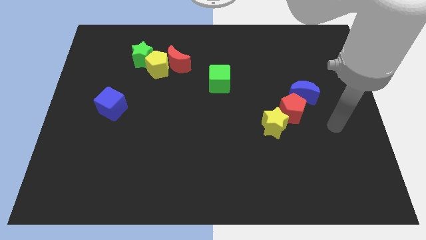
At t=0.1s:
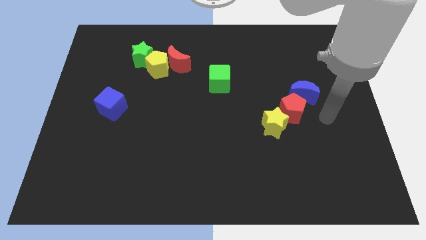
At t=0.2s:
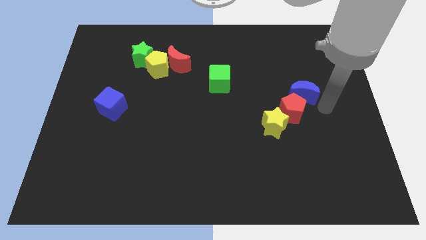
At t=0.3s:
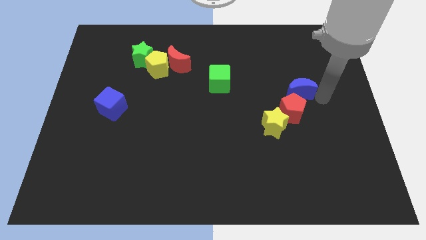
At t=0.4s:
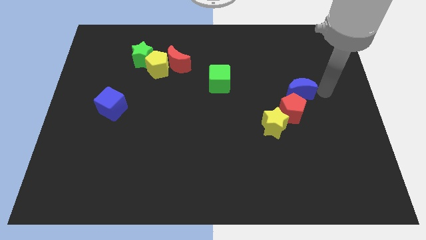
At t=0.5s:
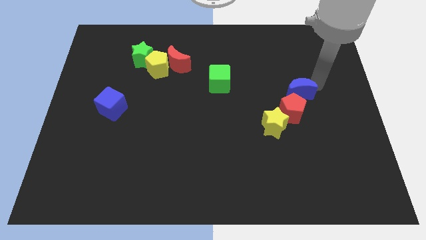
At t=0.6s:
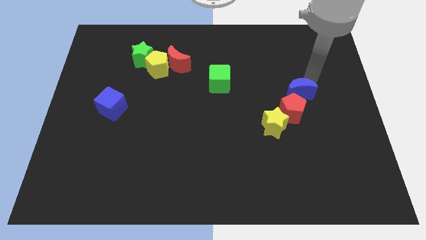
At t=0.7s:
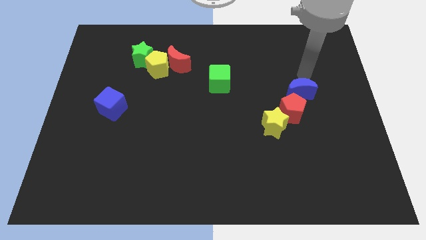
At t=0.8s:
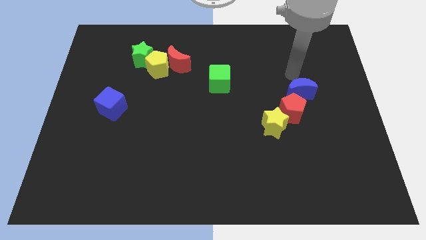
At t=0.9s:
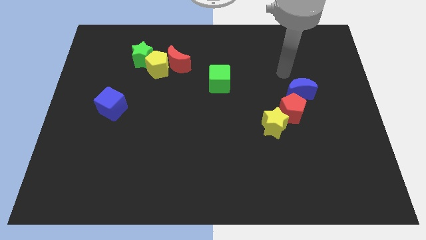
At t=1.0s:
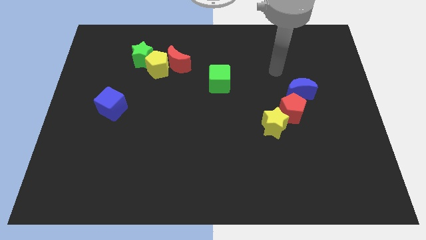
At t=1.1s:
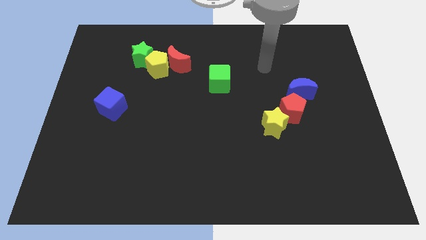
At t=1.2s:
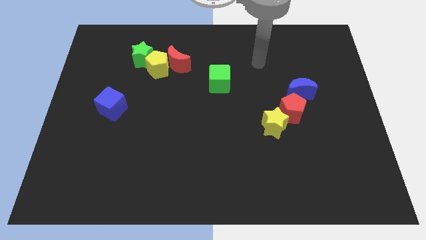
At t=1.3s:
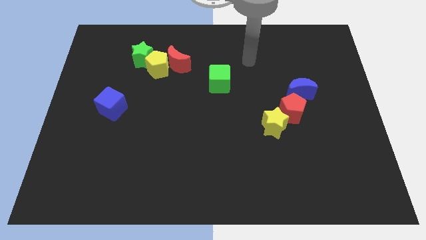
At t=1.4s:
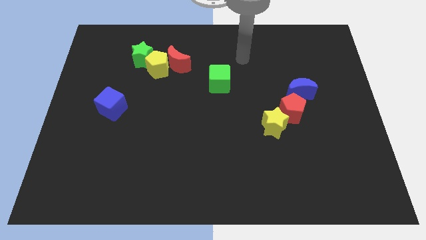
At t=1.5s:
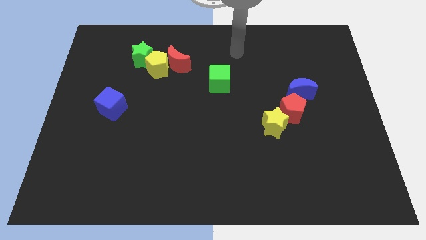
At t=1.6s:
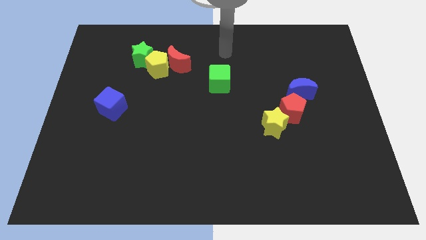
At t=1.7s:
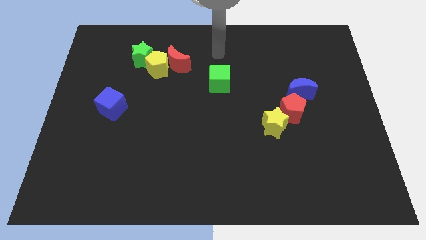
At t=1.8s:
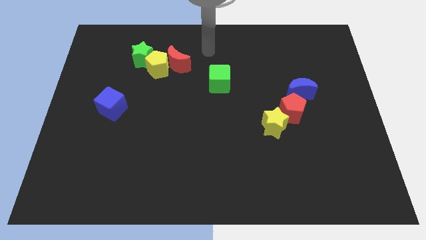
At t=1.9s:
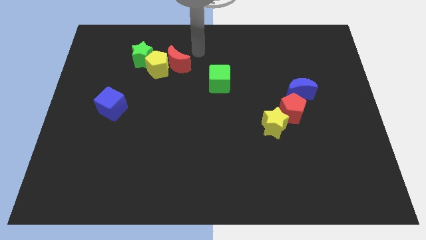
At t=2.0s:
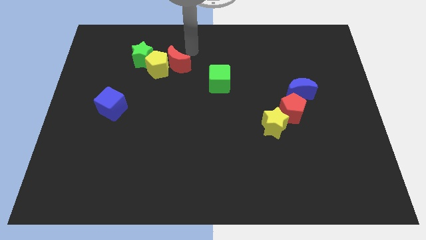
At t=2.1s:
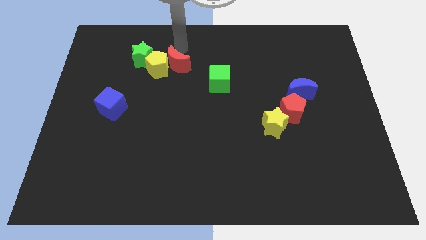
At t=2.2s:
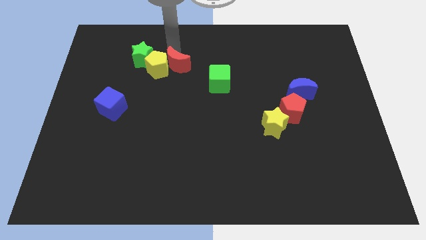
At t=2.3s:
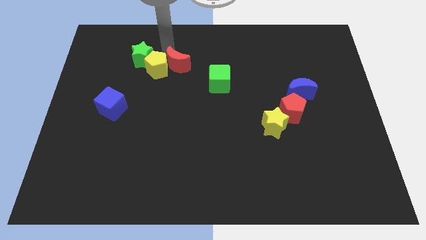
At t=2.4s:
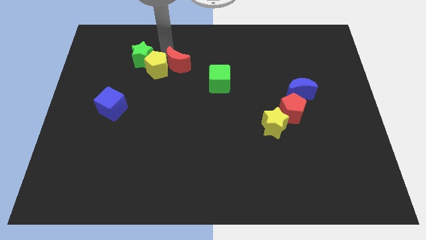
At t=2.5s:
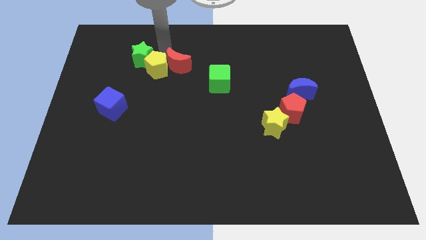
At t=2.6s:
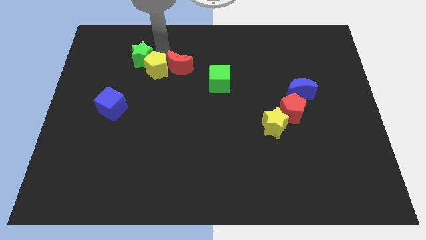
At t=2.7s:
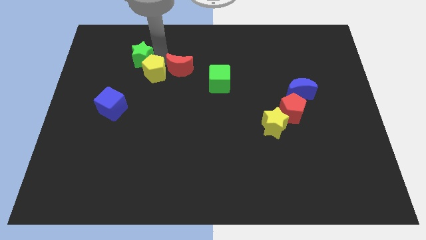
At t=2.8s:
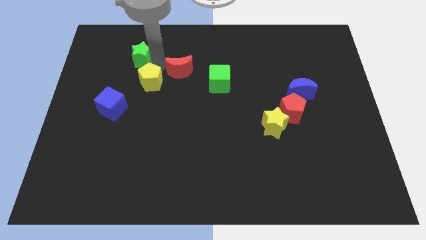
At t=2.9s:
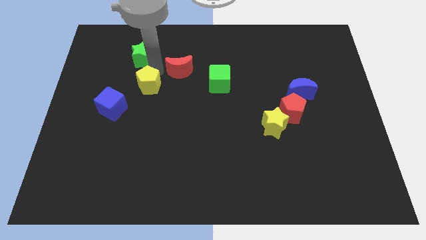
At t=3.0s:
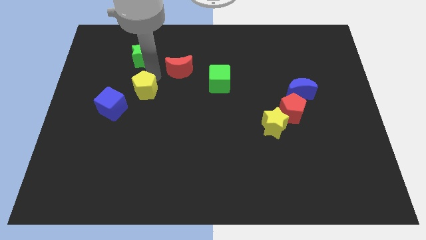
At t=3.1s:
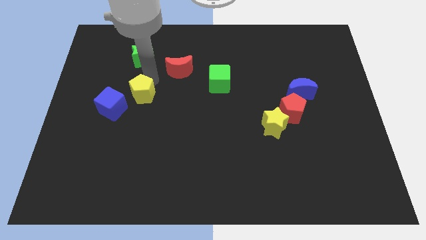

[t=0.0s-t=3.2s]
pull the yellow pentagon apart from the red moon and green star

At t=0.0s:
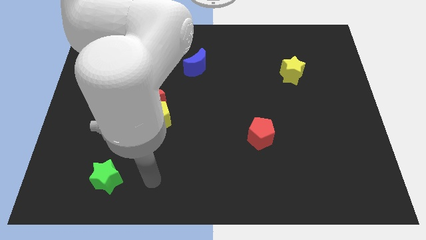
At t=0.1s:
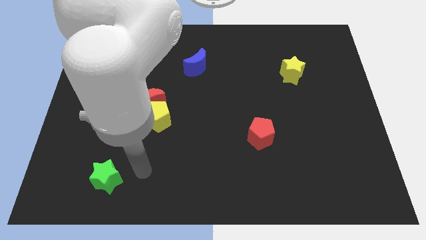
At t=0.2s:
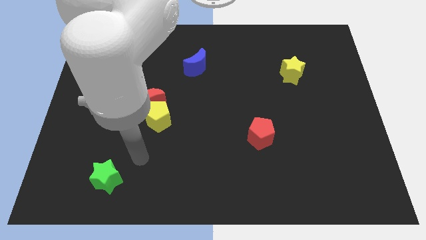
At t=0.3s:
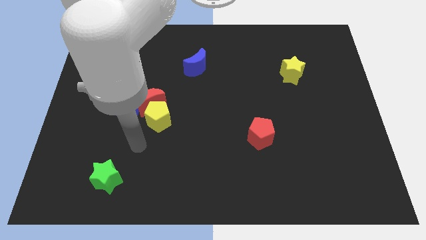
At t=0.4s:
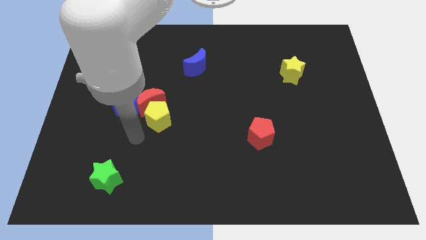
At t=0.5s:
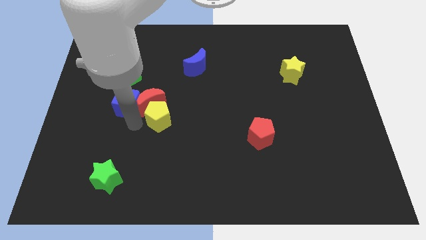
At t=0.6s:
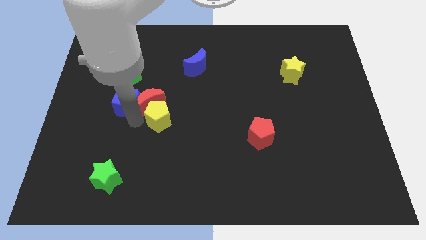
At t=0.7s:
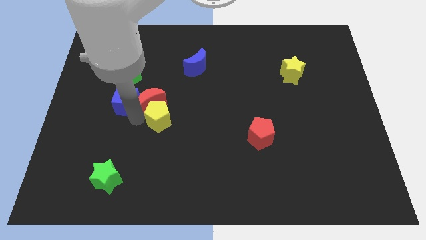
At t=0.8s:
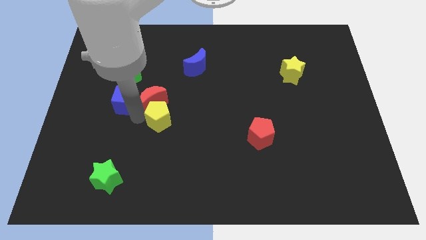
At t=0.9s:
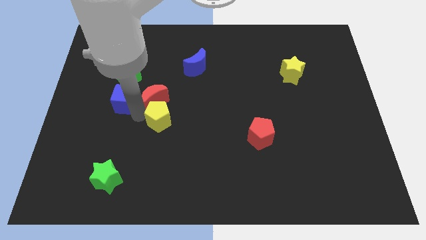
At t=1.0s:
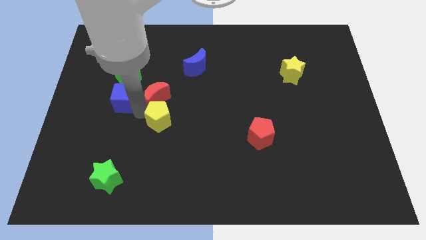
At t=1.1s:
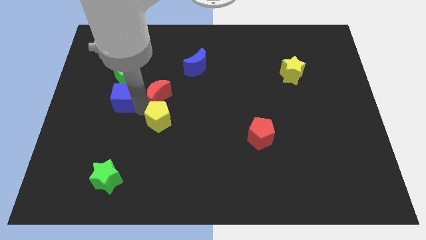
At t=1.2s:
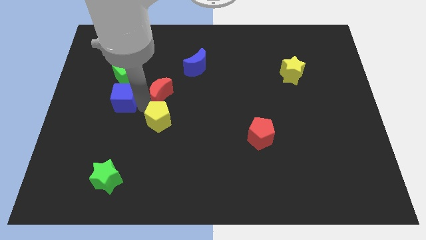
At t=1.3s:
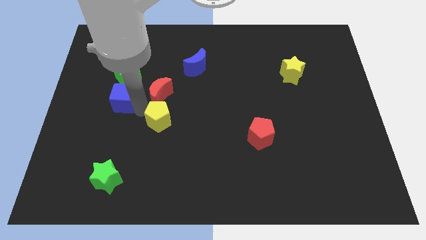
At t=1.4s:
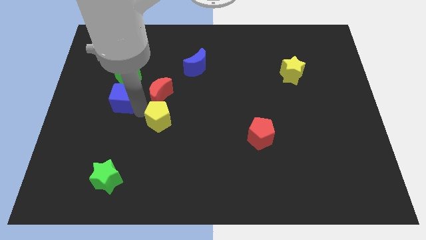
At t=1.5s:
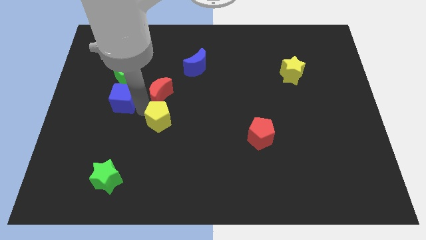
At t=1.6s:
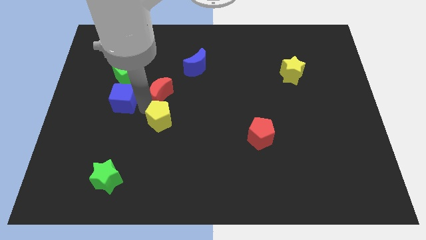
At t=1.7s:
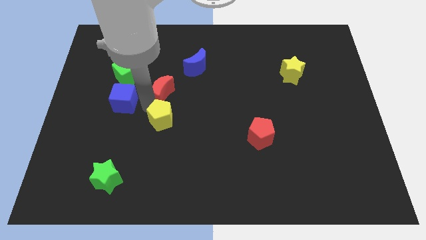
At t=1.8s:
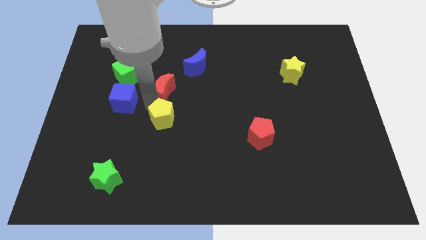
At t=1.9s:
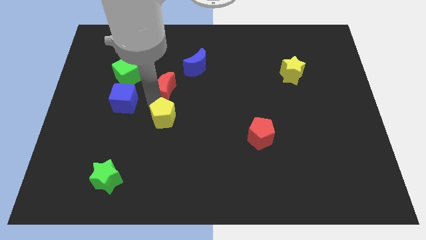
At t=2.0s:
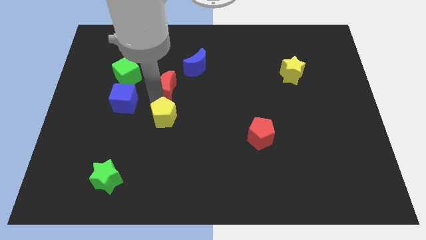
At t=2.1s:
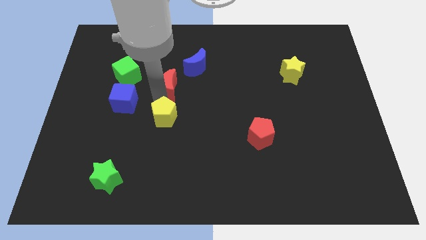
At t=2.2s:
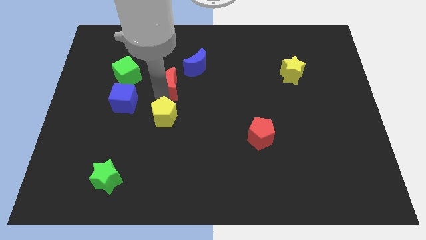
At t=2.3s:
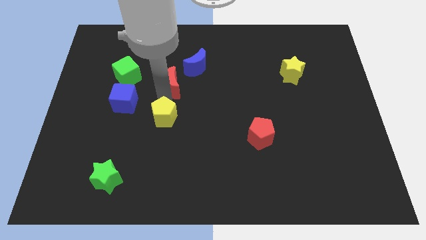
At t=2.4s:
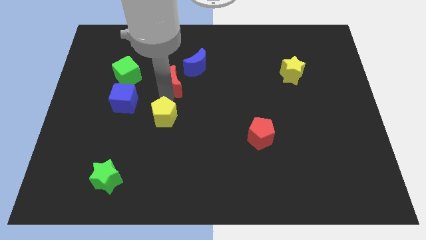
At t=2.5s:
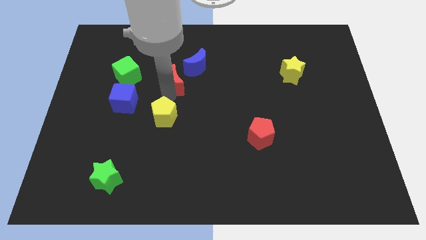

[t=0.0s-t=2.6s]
move the red moon away from the yellow pentagon and blue cube

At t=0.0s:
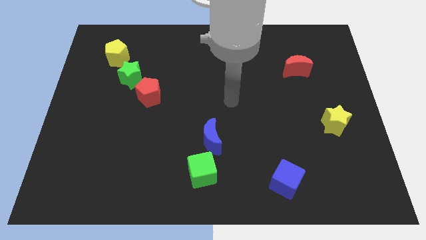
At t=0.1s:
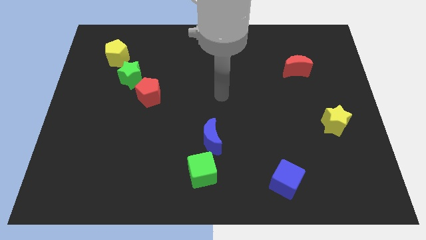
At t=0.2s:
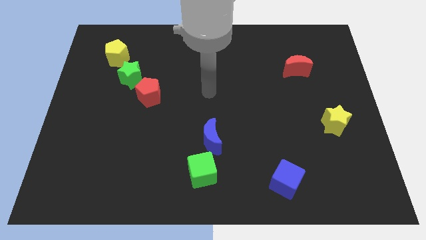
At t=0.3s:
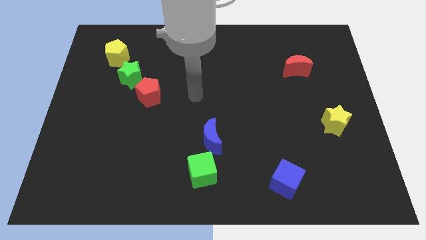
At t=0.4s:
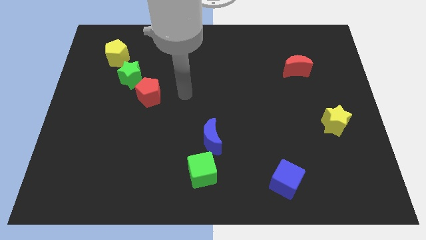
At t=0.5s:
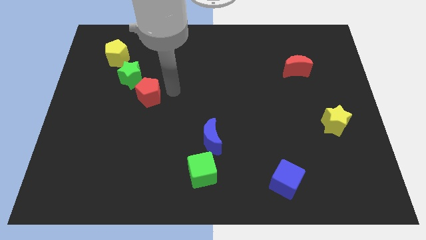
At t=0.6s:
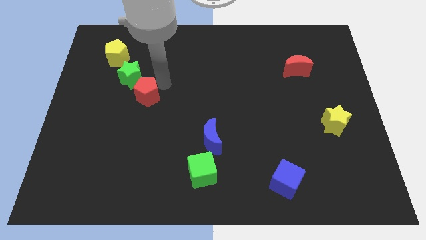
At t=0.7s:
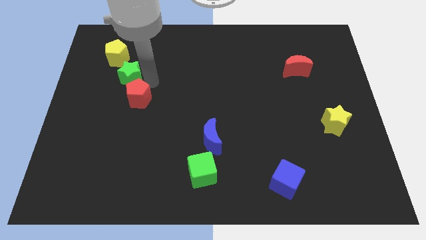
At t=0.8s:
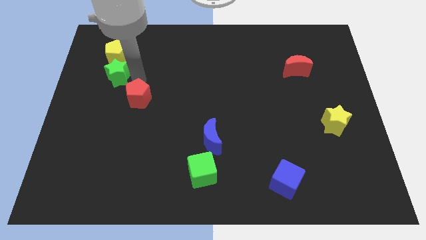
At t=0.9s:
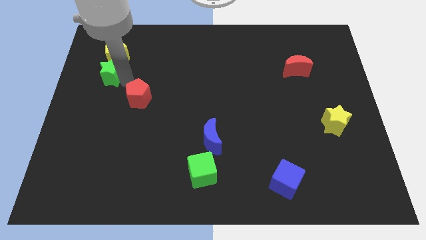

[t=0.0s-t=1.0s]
separate the red pentagon from the green star

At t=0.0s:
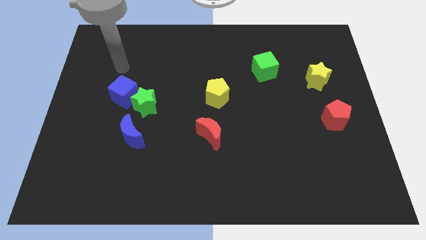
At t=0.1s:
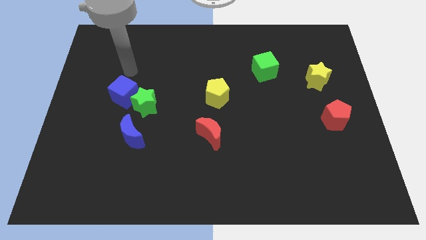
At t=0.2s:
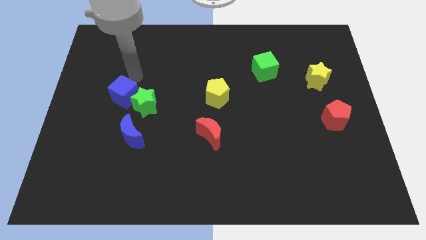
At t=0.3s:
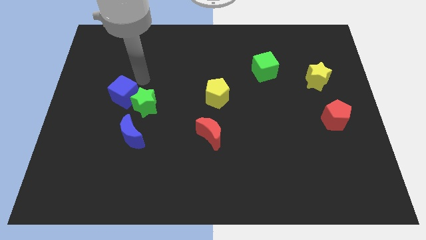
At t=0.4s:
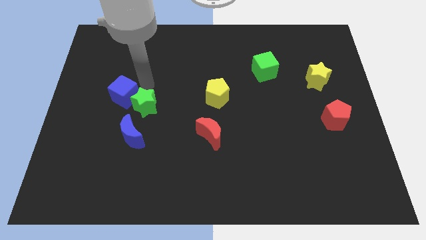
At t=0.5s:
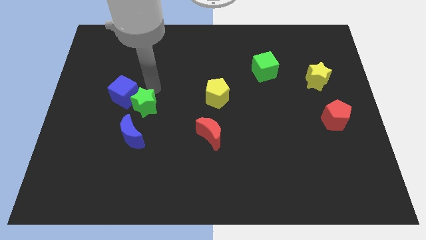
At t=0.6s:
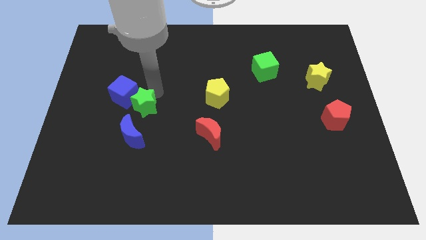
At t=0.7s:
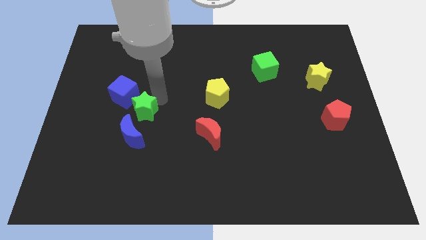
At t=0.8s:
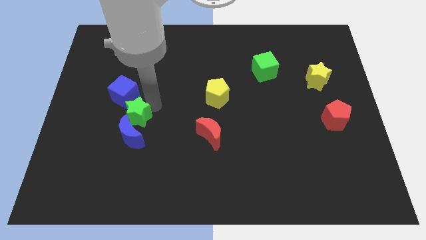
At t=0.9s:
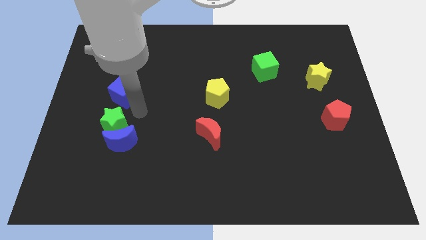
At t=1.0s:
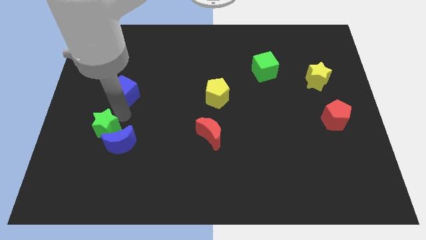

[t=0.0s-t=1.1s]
pull the blue cube apart from the green star

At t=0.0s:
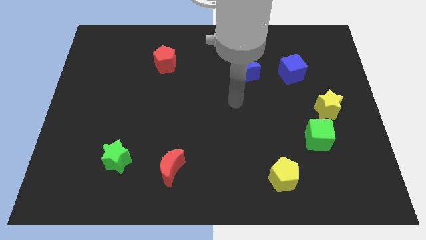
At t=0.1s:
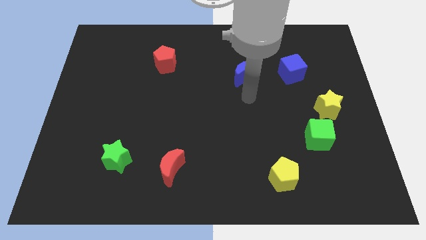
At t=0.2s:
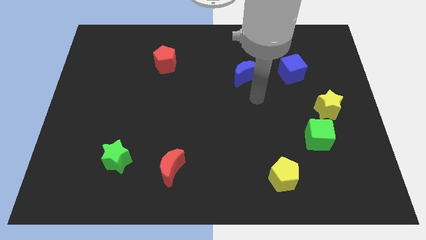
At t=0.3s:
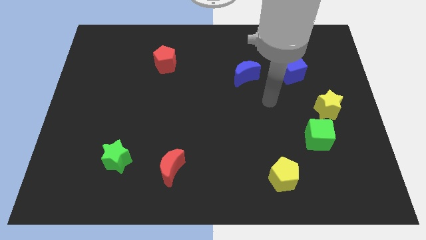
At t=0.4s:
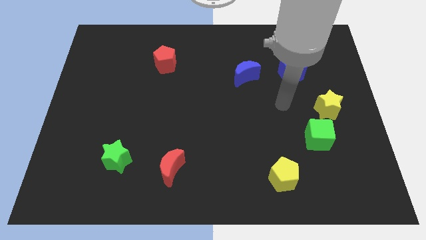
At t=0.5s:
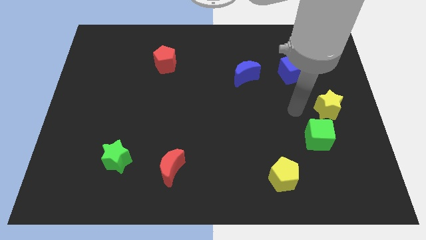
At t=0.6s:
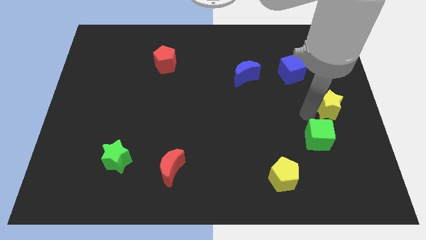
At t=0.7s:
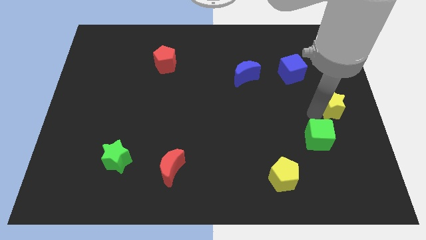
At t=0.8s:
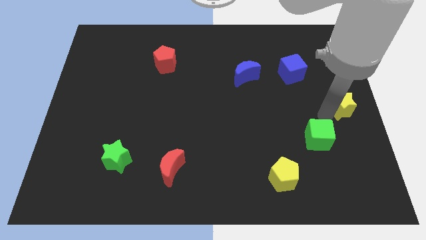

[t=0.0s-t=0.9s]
separate the green cube from the yellow star

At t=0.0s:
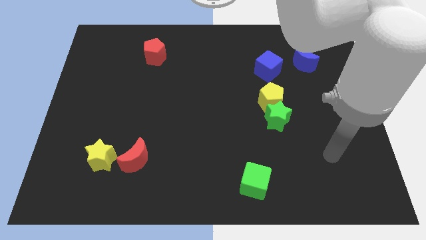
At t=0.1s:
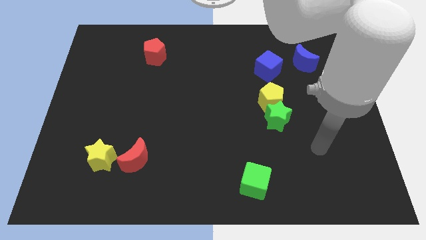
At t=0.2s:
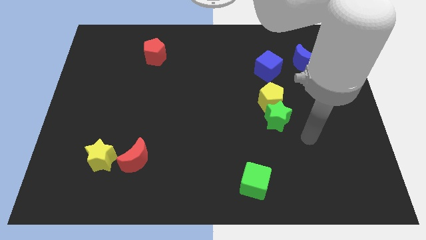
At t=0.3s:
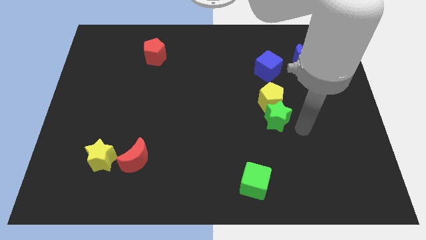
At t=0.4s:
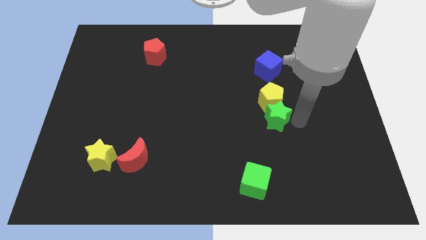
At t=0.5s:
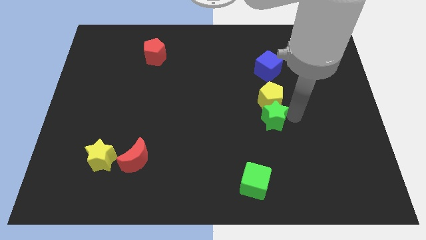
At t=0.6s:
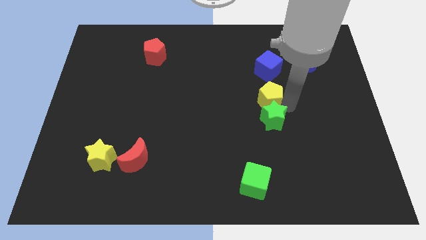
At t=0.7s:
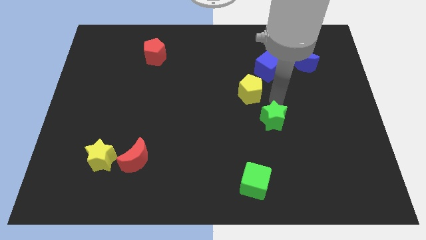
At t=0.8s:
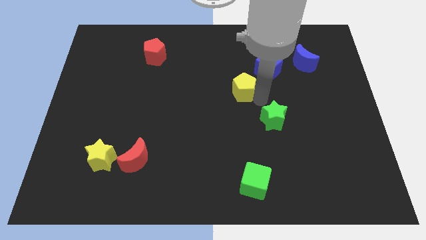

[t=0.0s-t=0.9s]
pull the green star apart from the yellow pentagon
